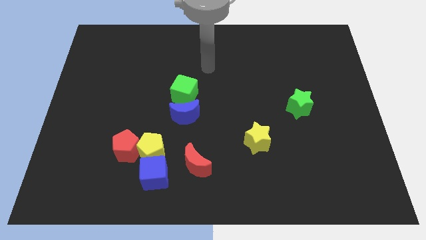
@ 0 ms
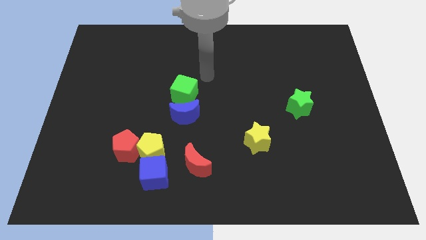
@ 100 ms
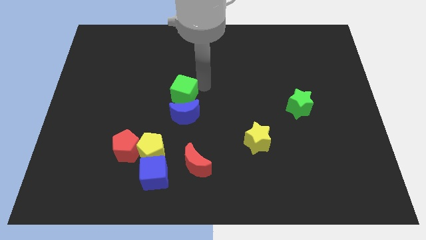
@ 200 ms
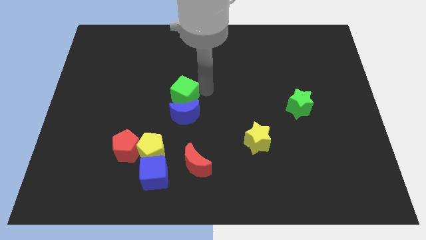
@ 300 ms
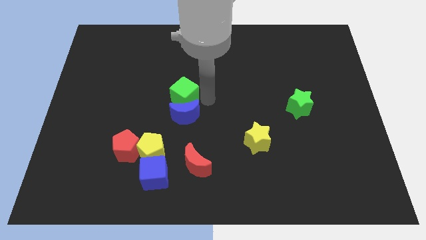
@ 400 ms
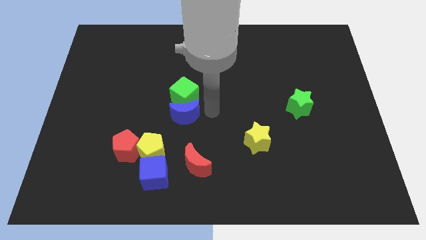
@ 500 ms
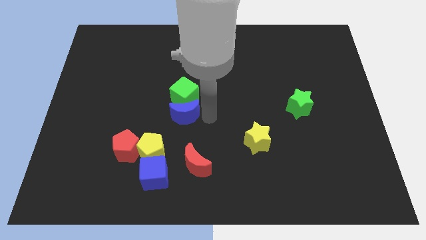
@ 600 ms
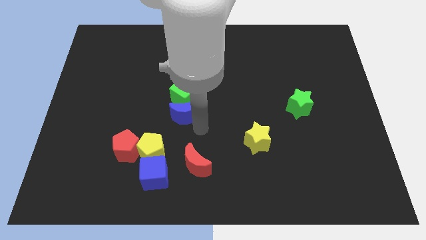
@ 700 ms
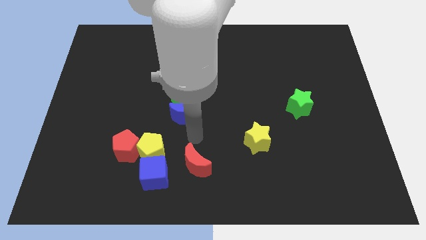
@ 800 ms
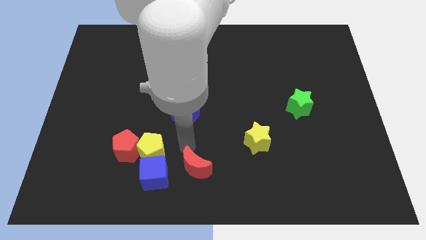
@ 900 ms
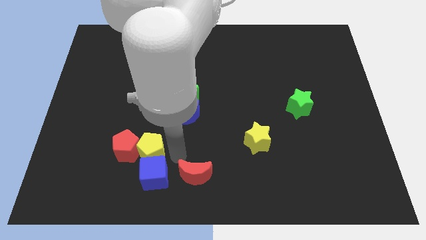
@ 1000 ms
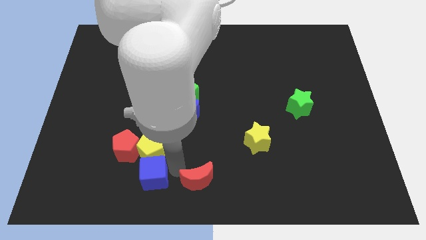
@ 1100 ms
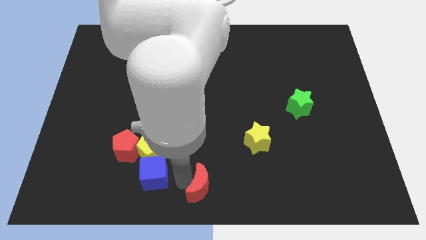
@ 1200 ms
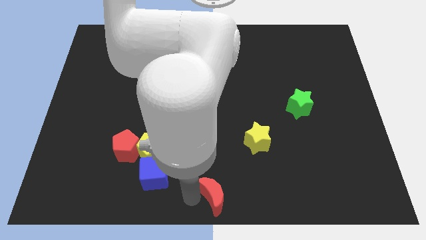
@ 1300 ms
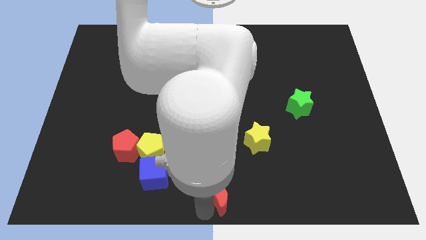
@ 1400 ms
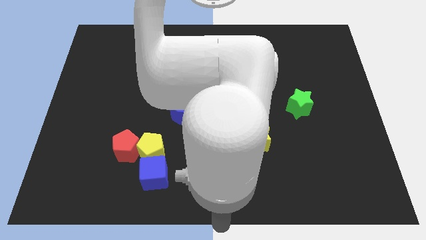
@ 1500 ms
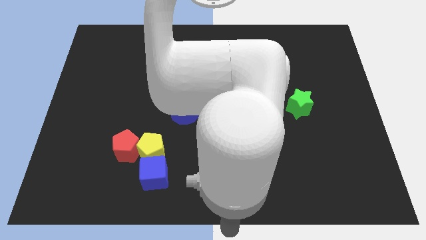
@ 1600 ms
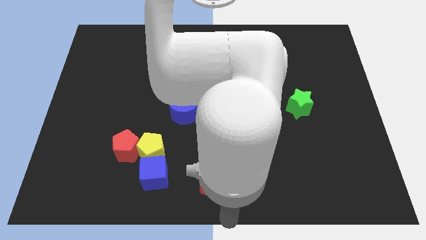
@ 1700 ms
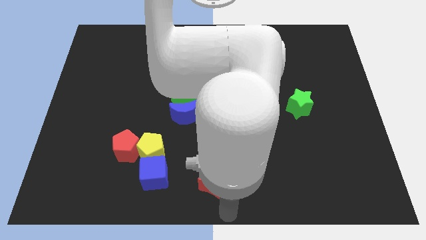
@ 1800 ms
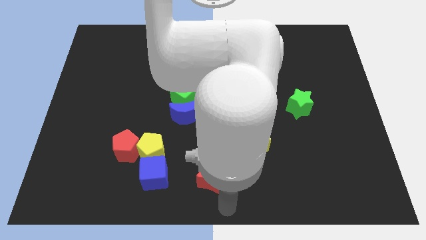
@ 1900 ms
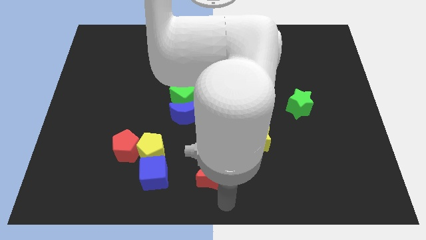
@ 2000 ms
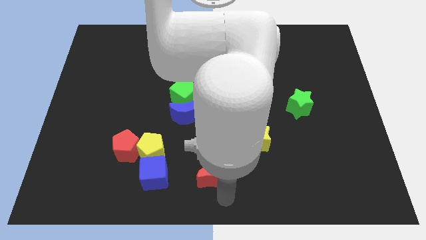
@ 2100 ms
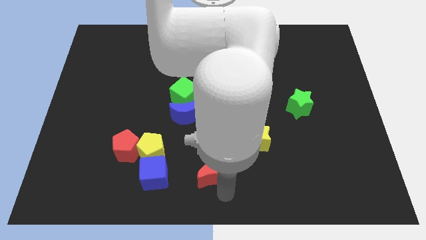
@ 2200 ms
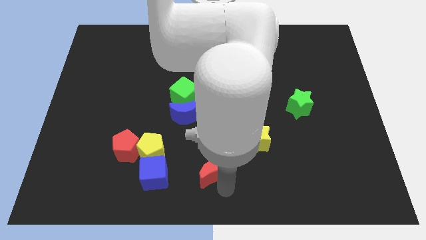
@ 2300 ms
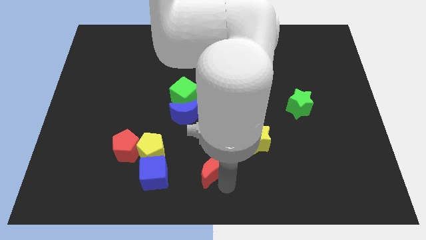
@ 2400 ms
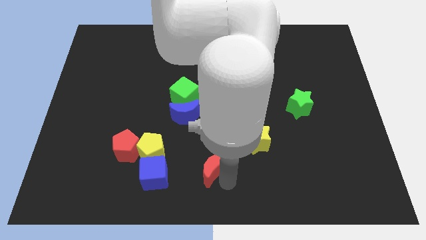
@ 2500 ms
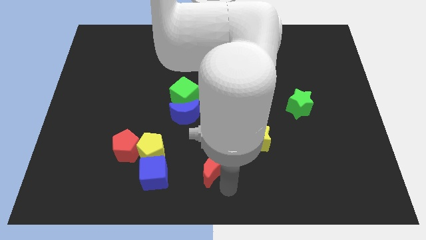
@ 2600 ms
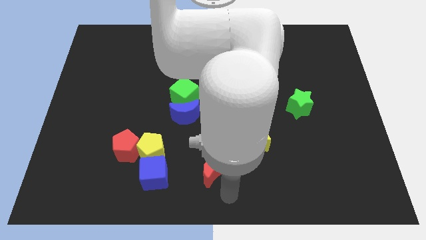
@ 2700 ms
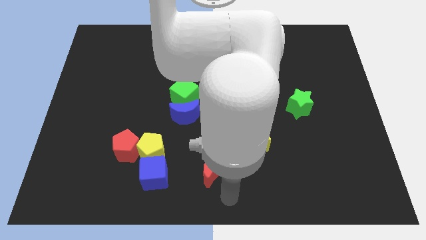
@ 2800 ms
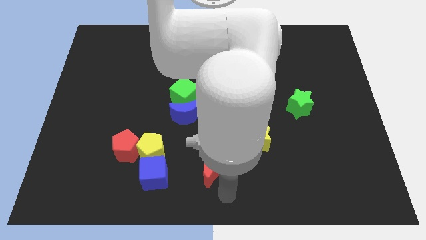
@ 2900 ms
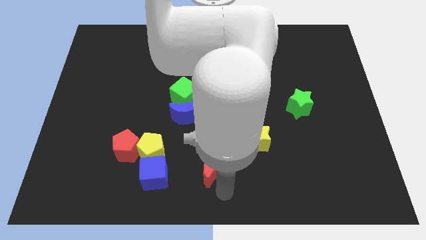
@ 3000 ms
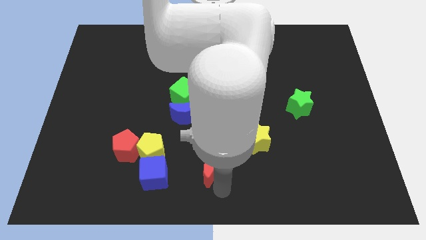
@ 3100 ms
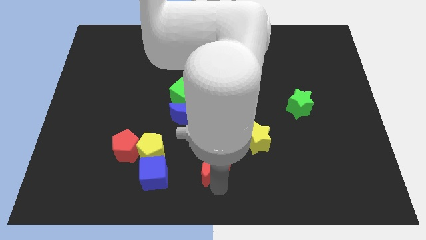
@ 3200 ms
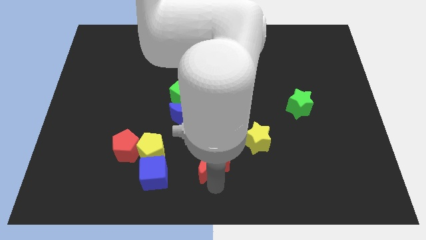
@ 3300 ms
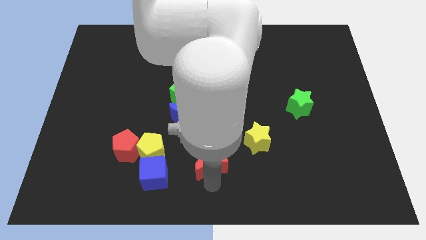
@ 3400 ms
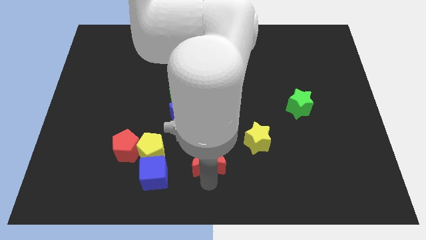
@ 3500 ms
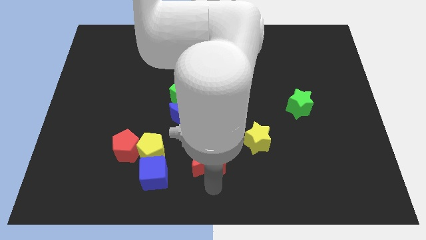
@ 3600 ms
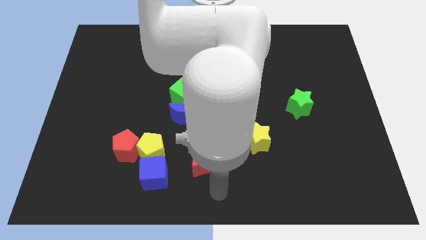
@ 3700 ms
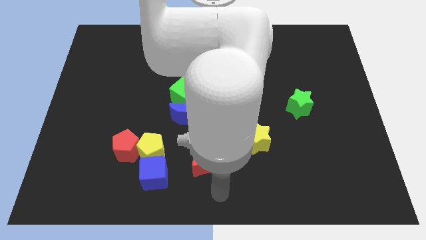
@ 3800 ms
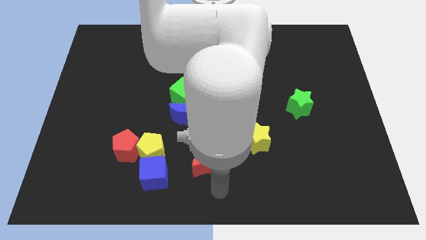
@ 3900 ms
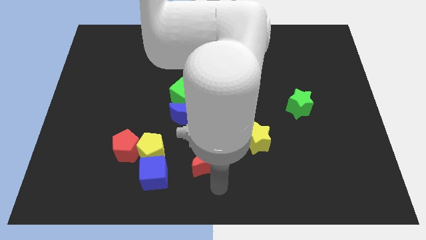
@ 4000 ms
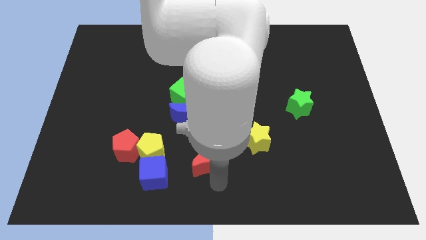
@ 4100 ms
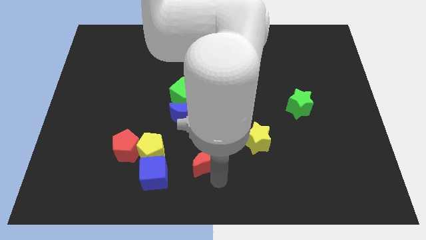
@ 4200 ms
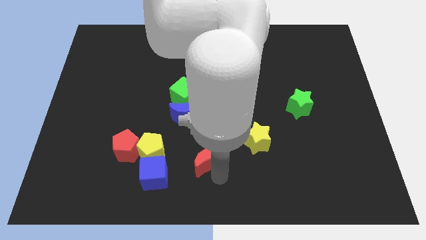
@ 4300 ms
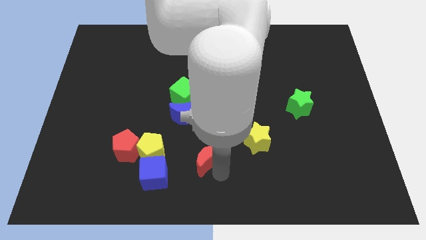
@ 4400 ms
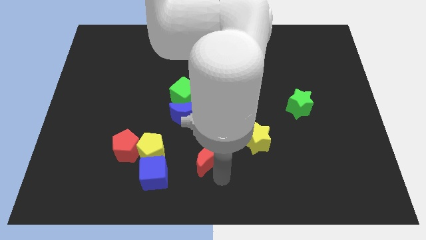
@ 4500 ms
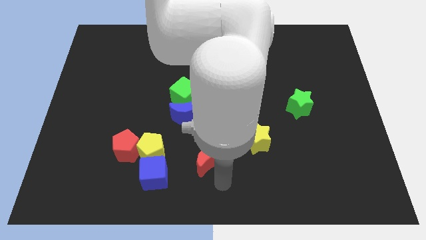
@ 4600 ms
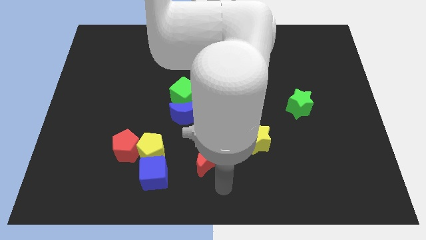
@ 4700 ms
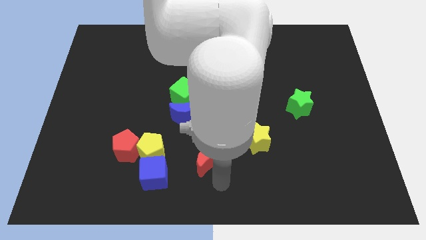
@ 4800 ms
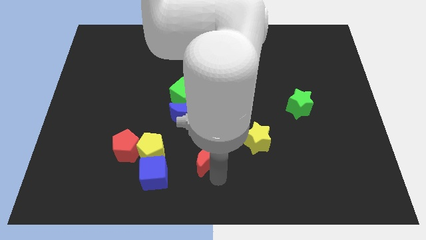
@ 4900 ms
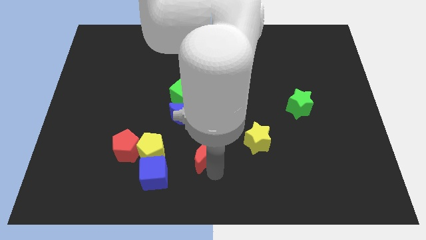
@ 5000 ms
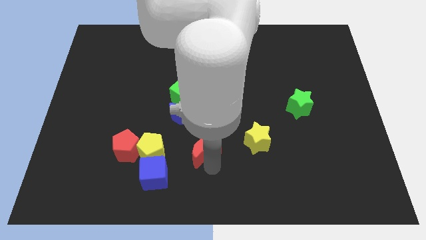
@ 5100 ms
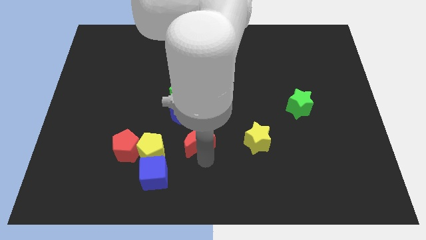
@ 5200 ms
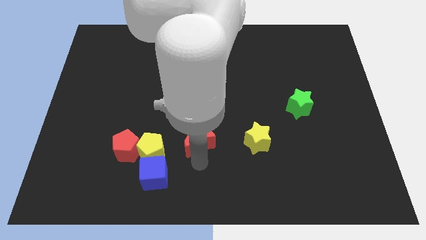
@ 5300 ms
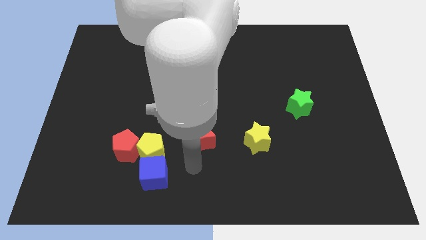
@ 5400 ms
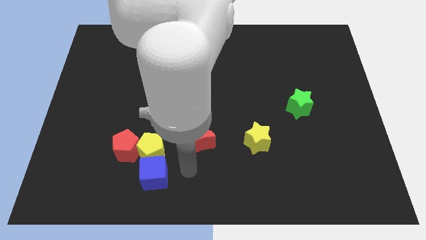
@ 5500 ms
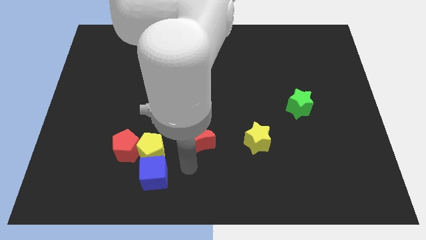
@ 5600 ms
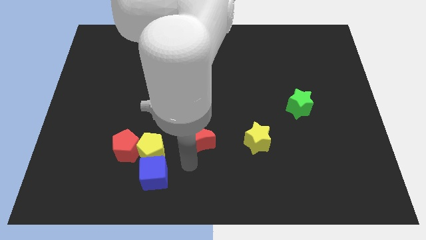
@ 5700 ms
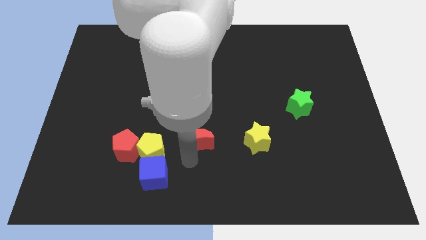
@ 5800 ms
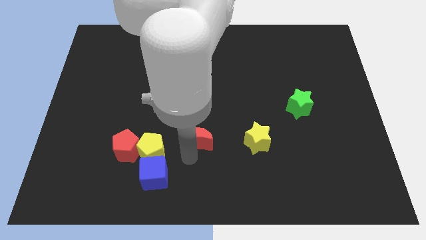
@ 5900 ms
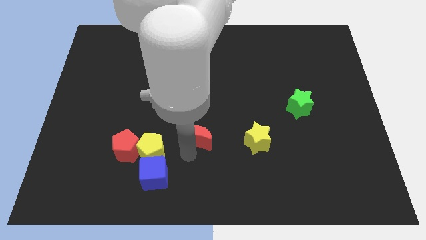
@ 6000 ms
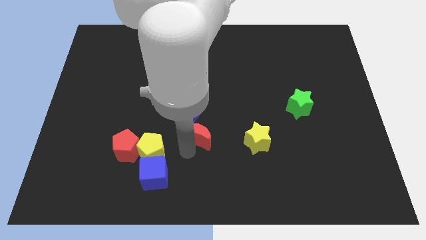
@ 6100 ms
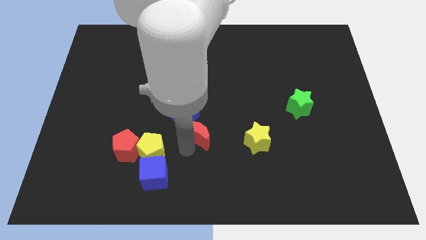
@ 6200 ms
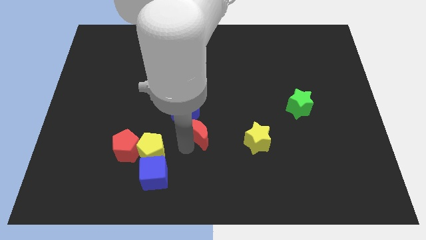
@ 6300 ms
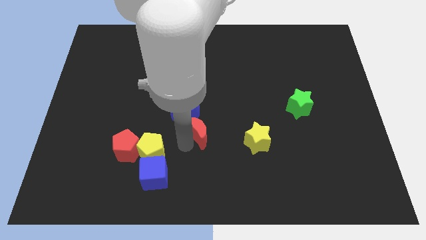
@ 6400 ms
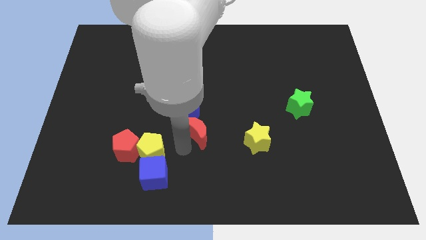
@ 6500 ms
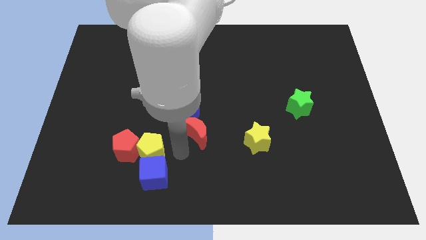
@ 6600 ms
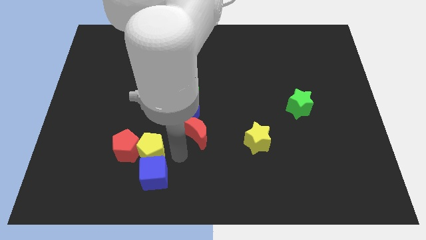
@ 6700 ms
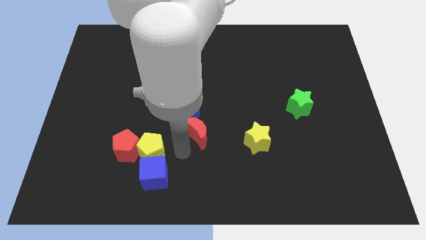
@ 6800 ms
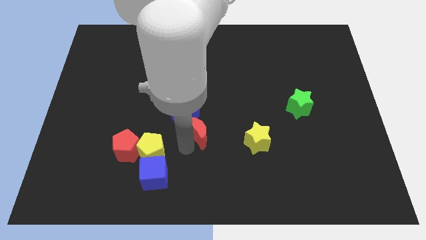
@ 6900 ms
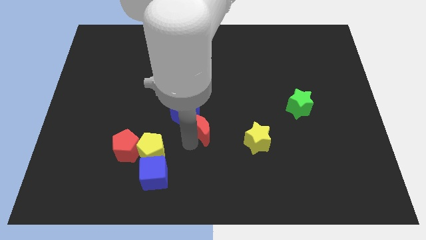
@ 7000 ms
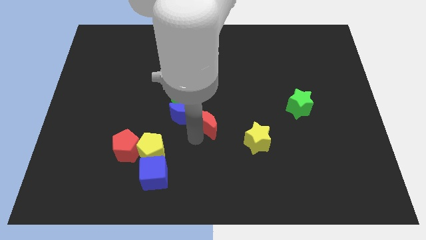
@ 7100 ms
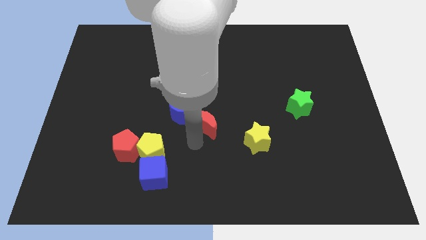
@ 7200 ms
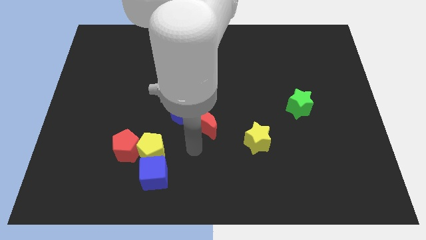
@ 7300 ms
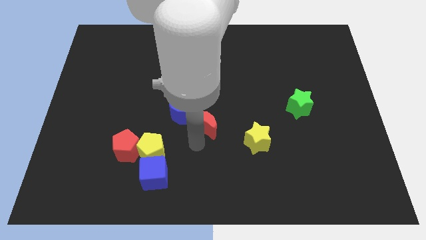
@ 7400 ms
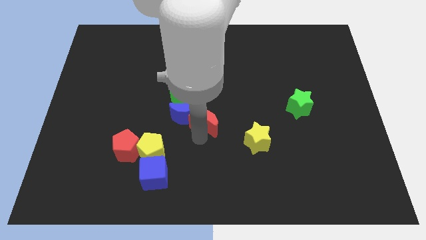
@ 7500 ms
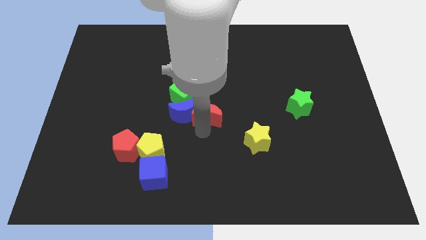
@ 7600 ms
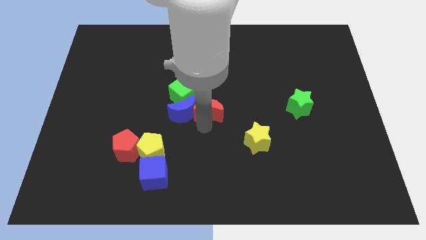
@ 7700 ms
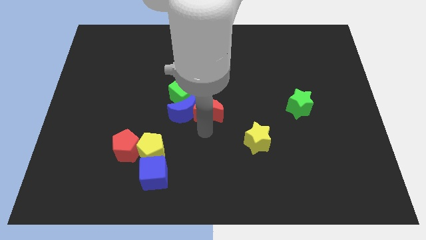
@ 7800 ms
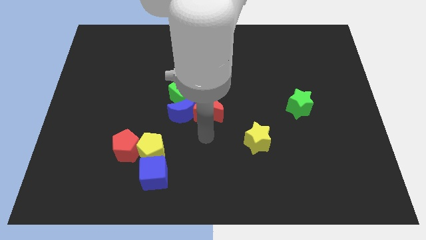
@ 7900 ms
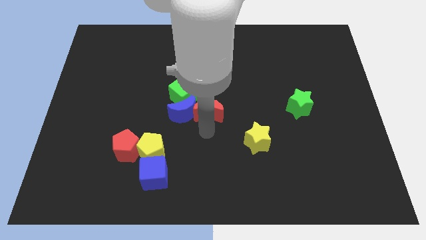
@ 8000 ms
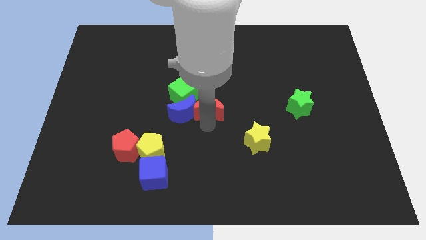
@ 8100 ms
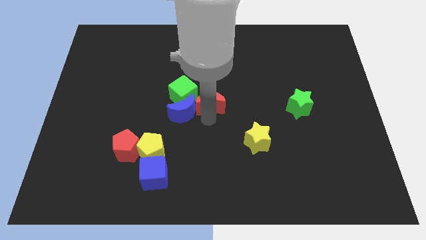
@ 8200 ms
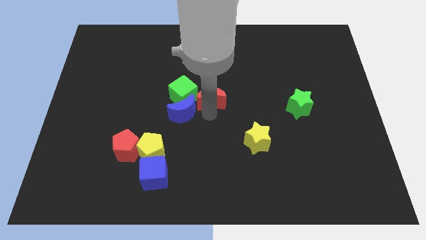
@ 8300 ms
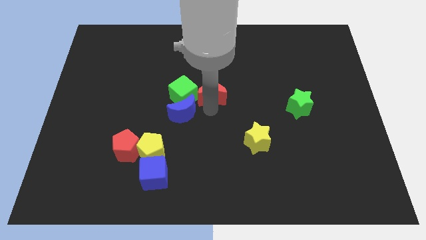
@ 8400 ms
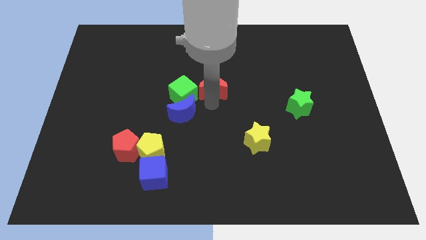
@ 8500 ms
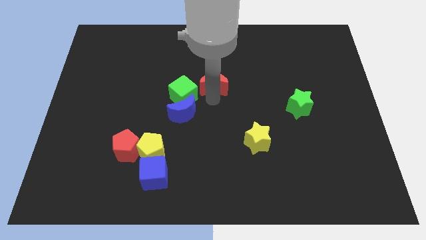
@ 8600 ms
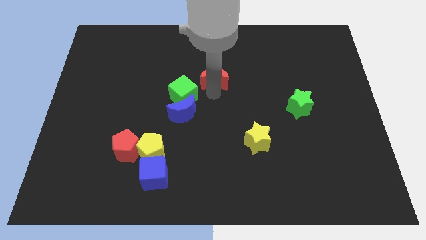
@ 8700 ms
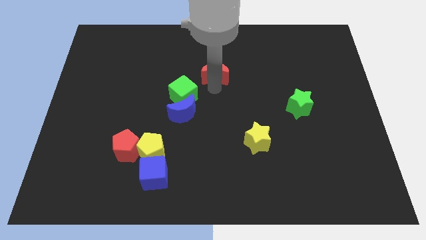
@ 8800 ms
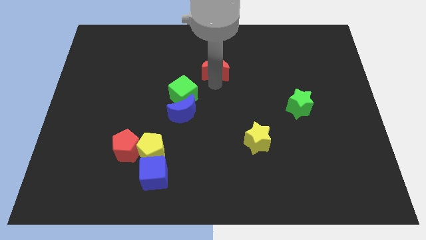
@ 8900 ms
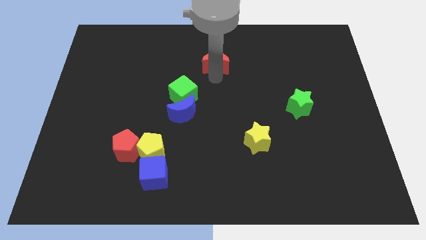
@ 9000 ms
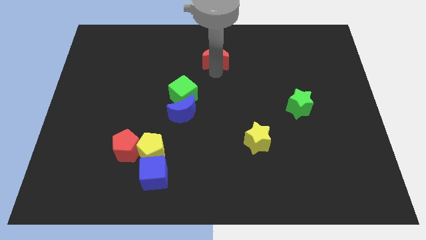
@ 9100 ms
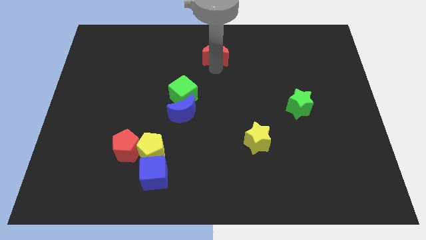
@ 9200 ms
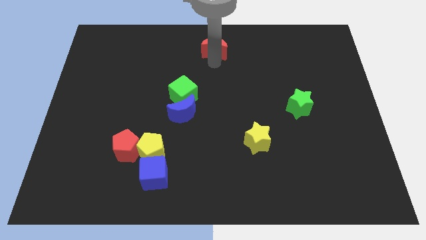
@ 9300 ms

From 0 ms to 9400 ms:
put the red moon to the top
